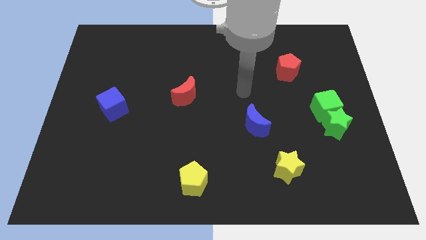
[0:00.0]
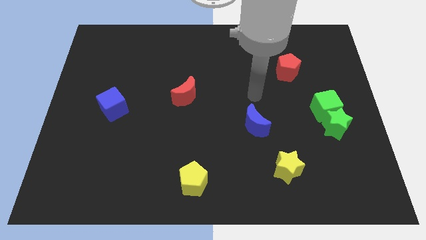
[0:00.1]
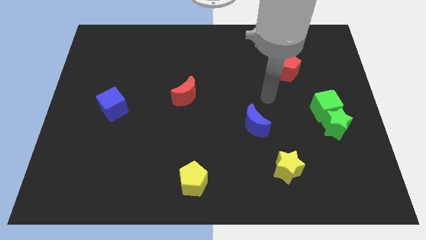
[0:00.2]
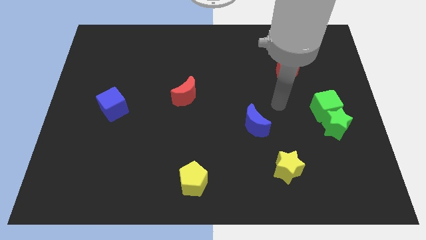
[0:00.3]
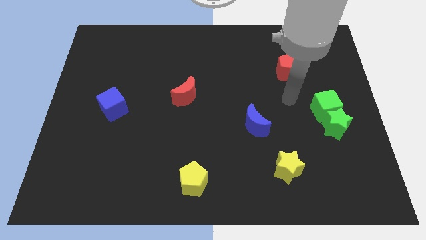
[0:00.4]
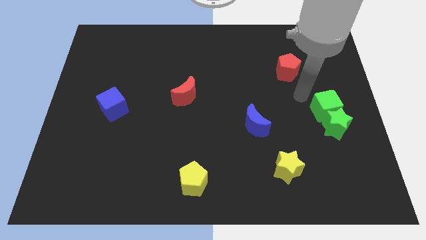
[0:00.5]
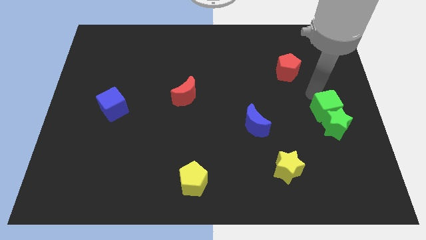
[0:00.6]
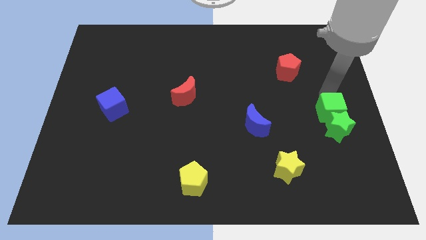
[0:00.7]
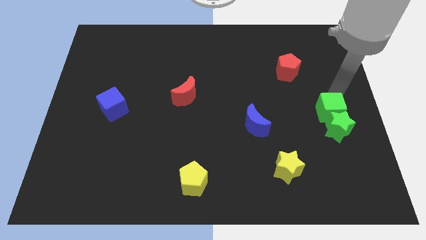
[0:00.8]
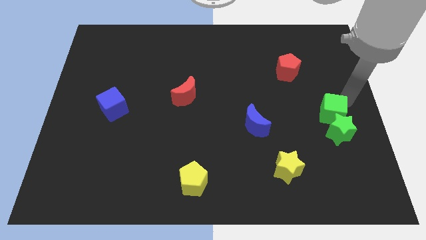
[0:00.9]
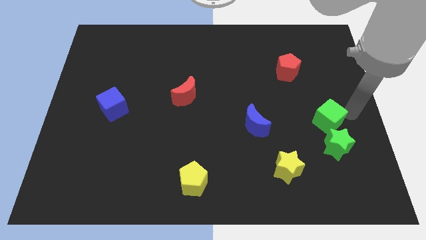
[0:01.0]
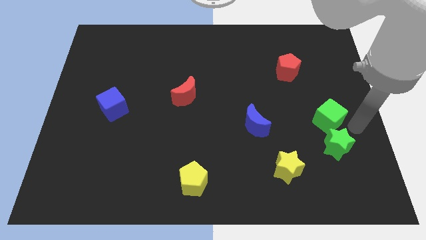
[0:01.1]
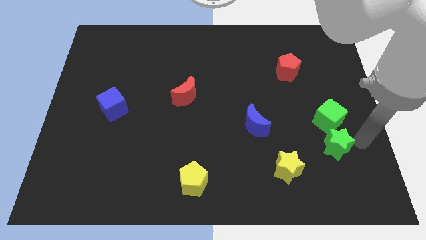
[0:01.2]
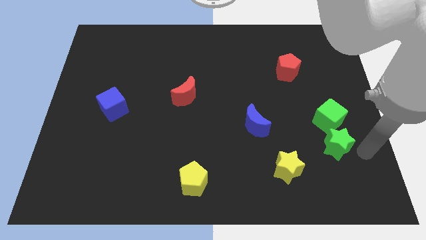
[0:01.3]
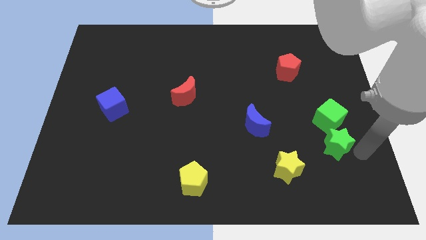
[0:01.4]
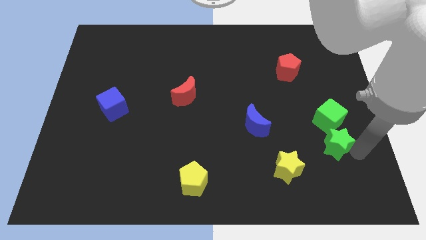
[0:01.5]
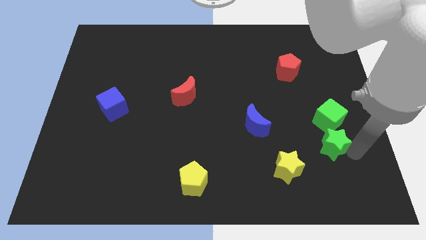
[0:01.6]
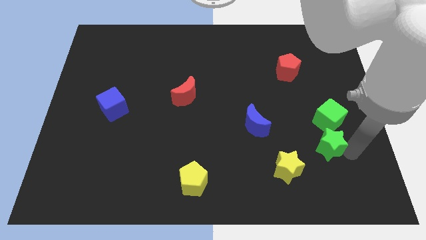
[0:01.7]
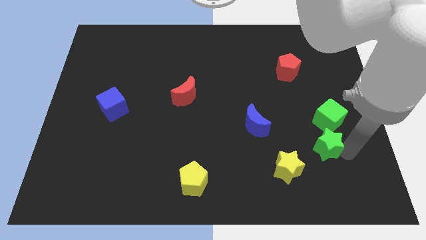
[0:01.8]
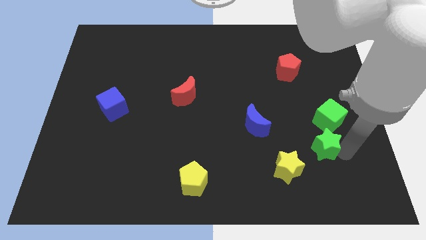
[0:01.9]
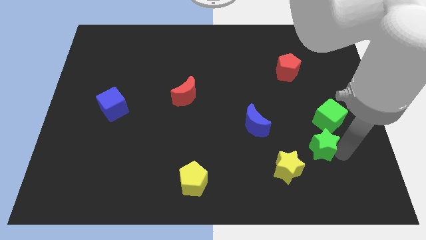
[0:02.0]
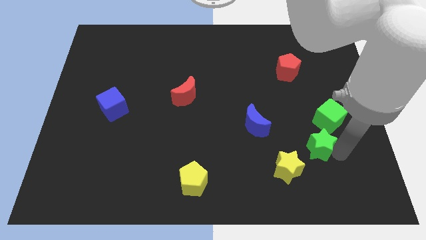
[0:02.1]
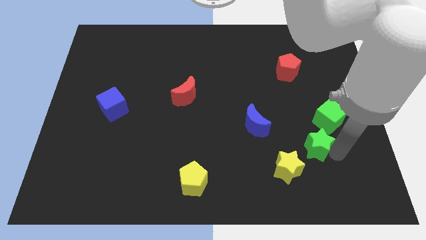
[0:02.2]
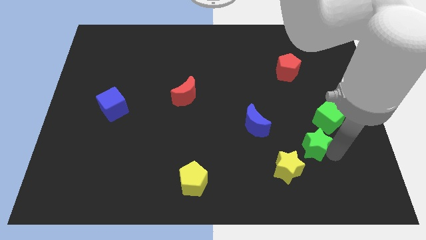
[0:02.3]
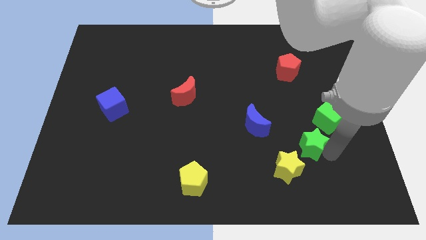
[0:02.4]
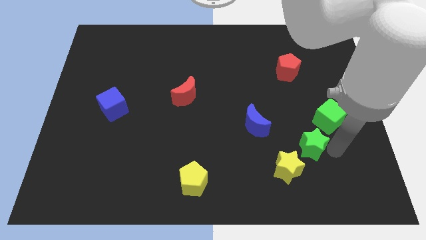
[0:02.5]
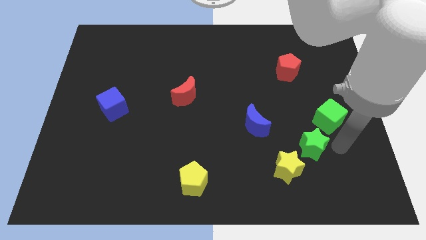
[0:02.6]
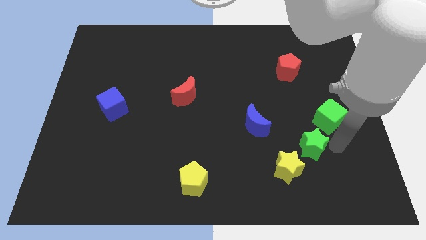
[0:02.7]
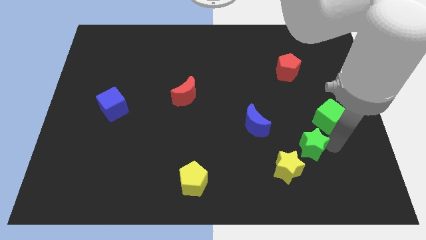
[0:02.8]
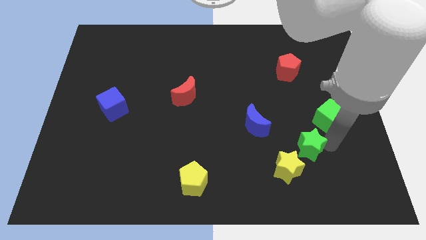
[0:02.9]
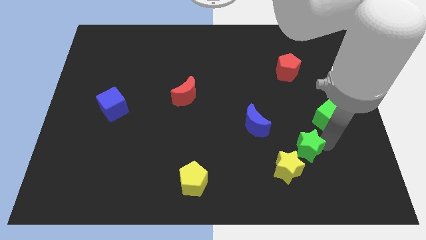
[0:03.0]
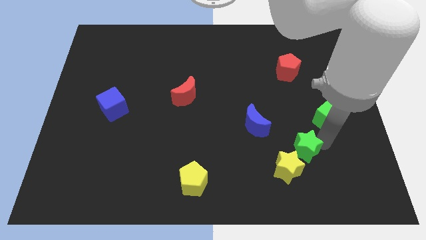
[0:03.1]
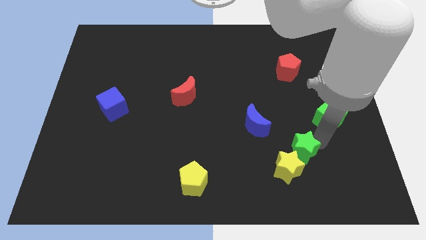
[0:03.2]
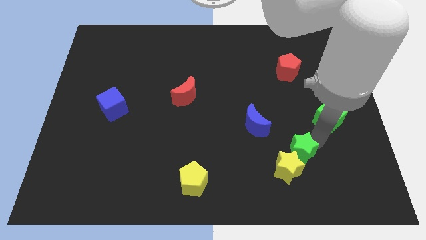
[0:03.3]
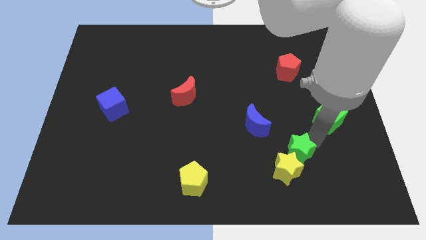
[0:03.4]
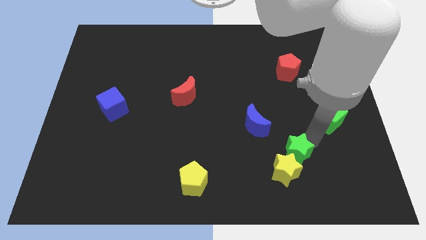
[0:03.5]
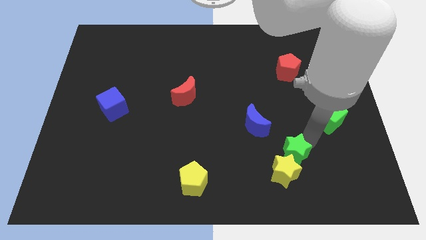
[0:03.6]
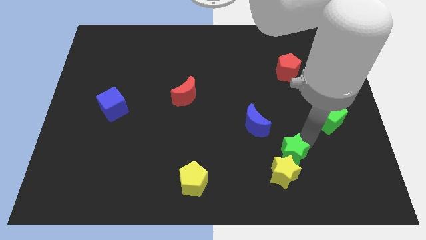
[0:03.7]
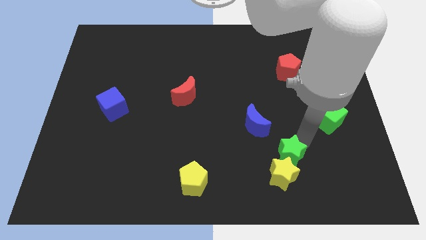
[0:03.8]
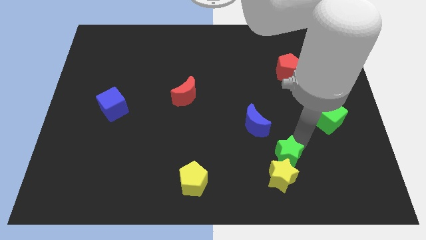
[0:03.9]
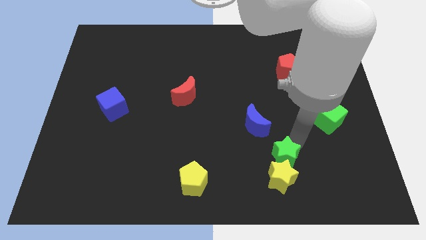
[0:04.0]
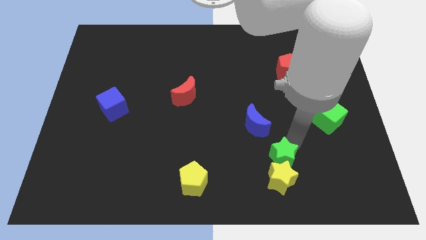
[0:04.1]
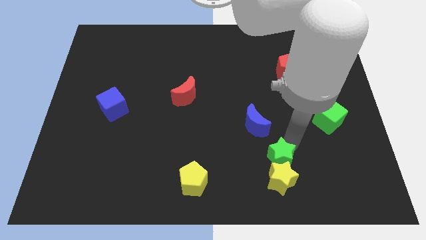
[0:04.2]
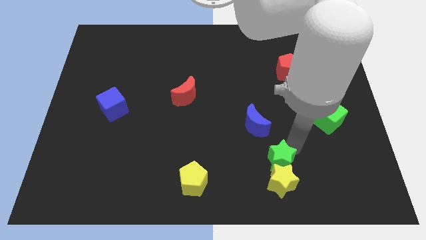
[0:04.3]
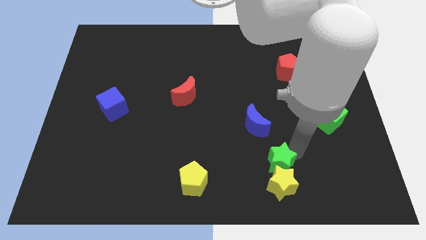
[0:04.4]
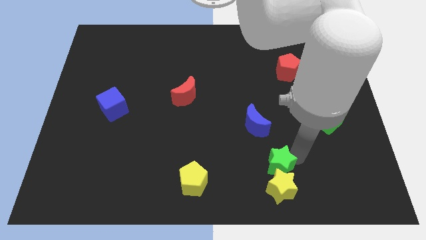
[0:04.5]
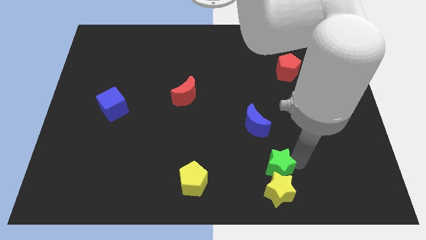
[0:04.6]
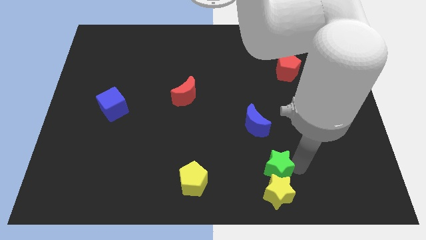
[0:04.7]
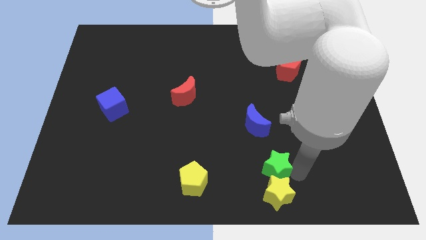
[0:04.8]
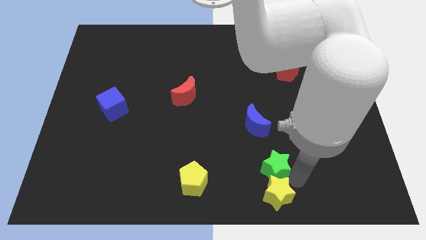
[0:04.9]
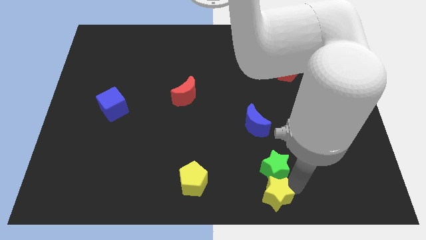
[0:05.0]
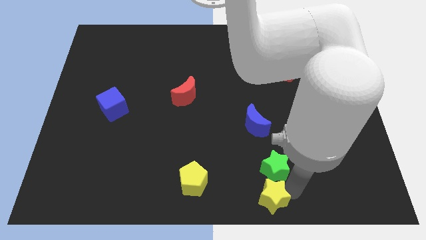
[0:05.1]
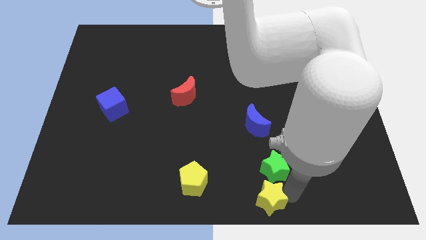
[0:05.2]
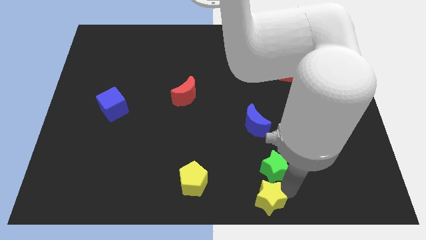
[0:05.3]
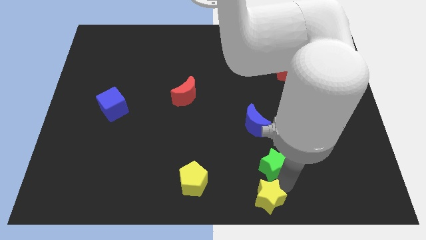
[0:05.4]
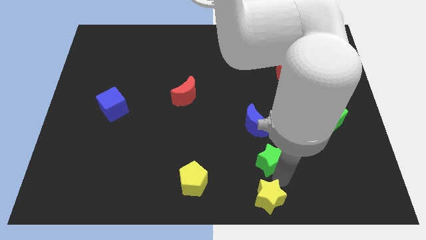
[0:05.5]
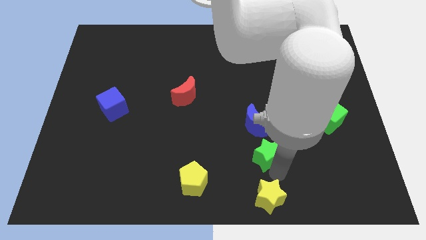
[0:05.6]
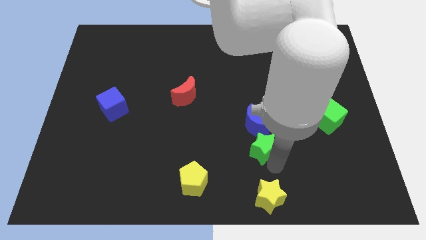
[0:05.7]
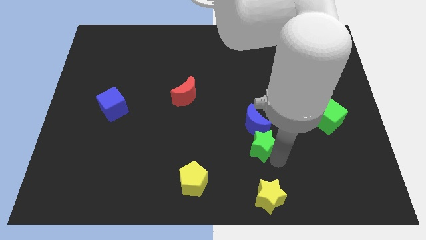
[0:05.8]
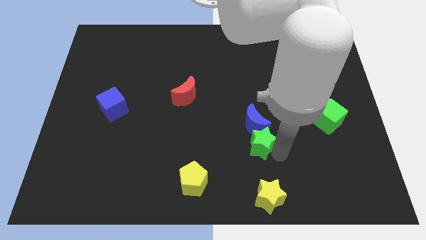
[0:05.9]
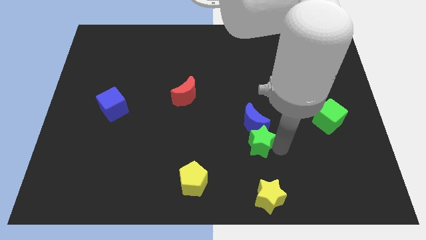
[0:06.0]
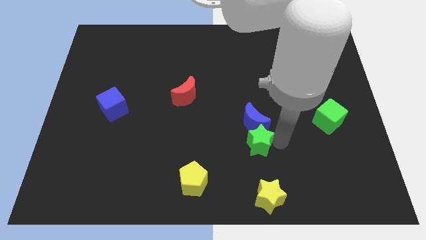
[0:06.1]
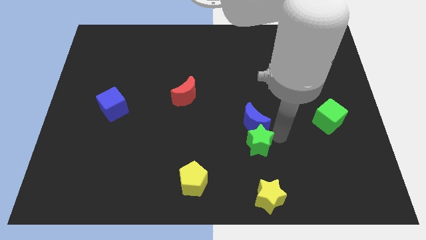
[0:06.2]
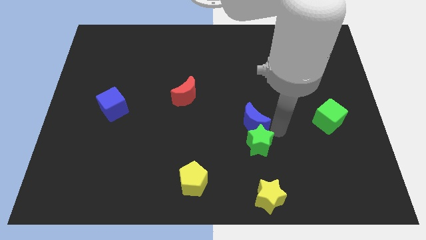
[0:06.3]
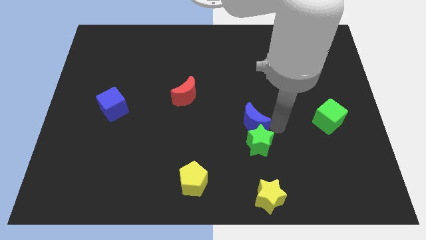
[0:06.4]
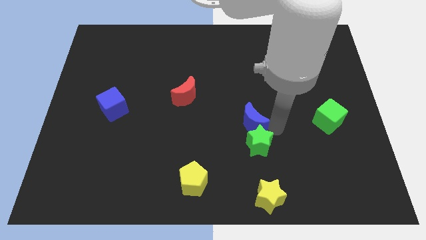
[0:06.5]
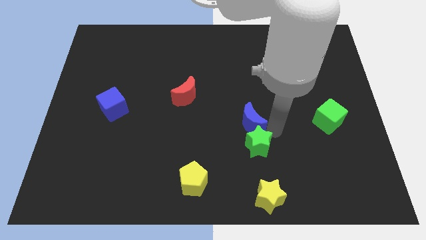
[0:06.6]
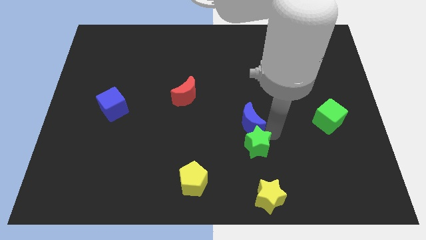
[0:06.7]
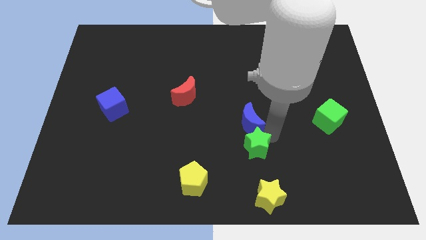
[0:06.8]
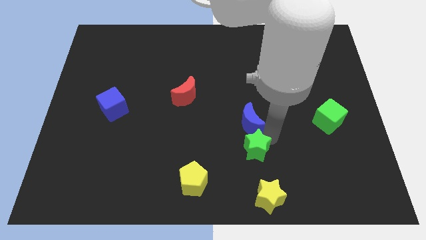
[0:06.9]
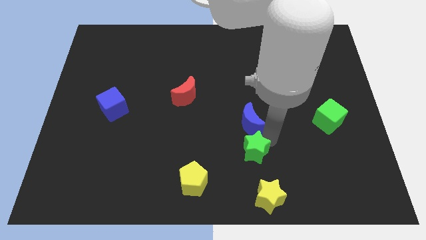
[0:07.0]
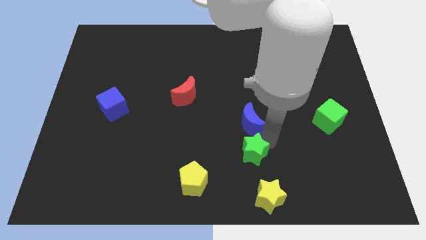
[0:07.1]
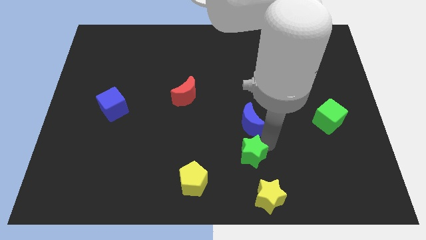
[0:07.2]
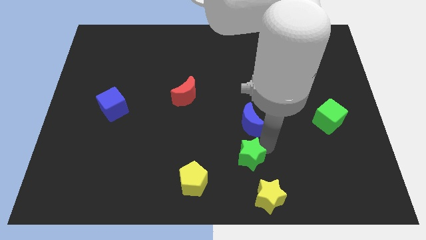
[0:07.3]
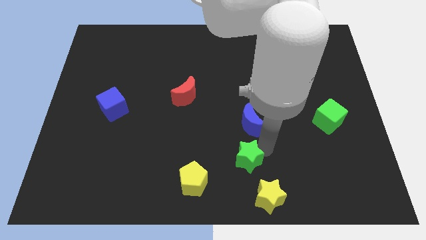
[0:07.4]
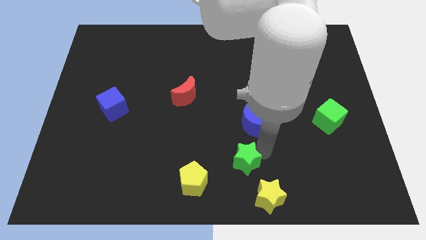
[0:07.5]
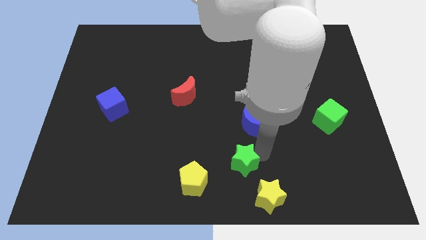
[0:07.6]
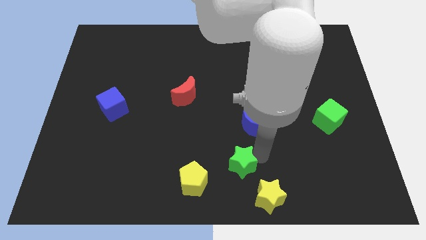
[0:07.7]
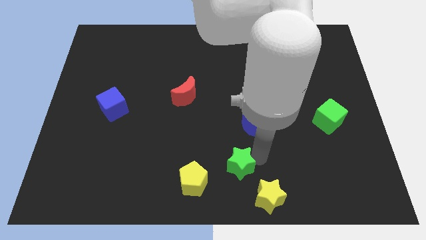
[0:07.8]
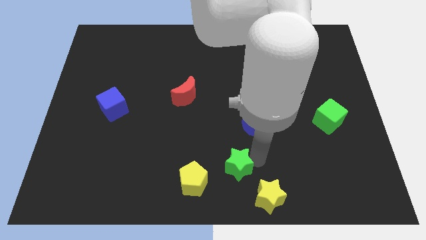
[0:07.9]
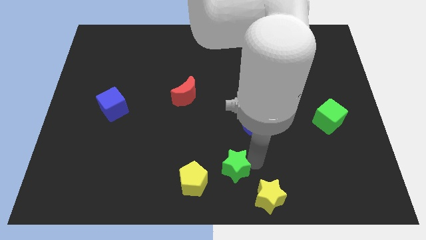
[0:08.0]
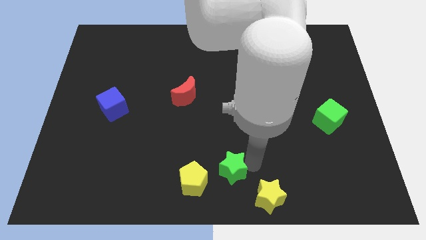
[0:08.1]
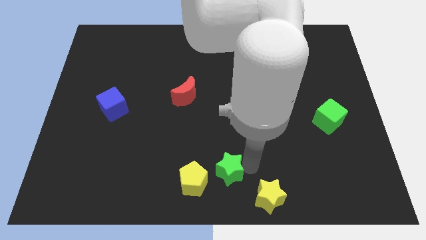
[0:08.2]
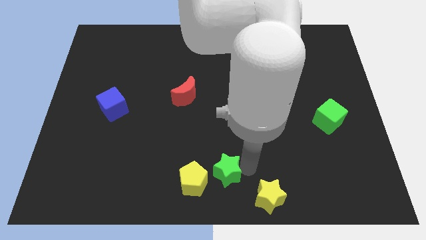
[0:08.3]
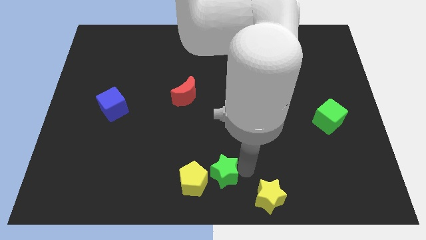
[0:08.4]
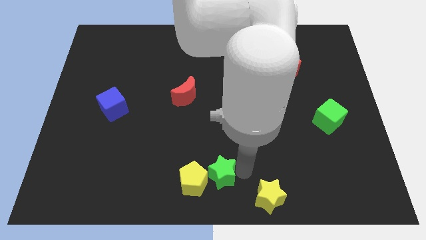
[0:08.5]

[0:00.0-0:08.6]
slide the green star towards the yellow pentagon
